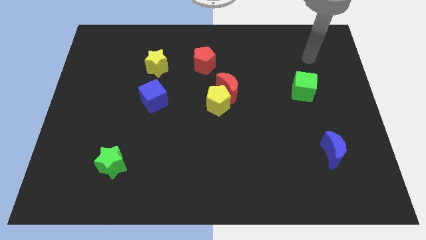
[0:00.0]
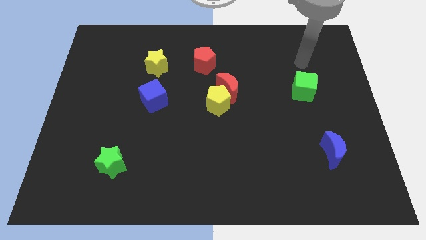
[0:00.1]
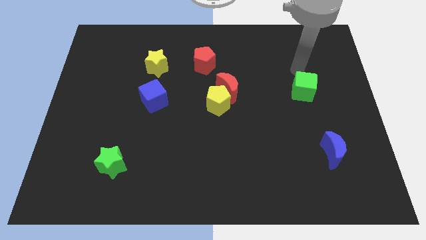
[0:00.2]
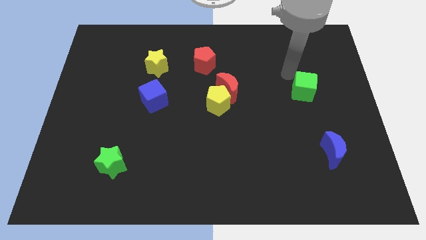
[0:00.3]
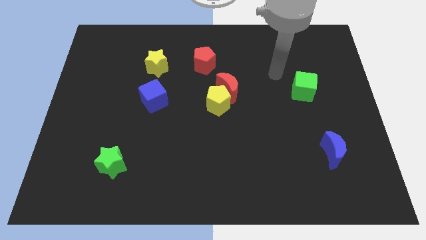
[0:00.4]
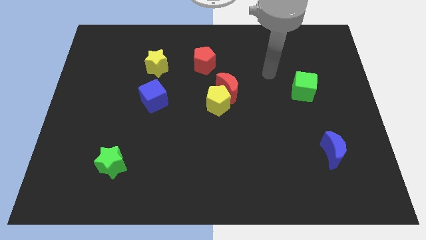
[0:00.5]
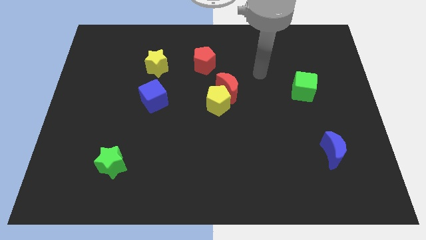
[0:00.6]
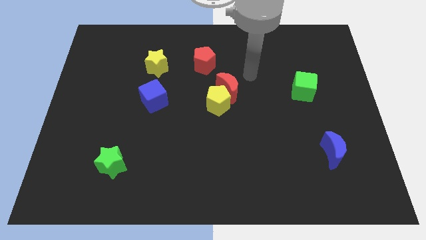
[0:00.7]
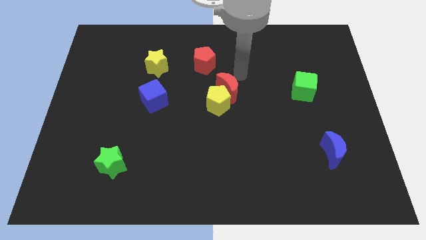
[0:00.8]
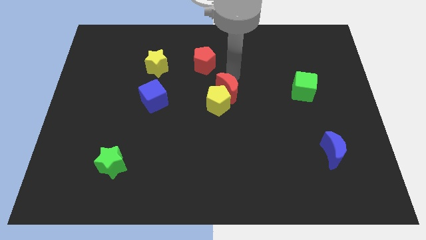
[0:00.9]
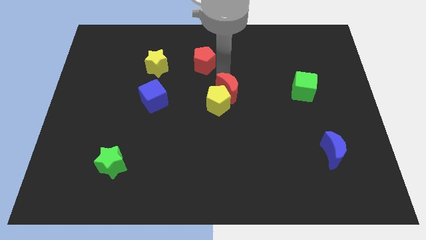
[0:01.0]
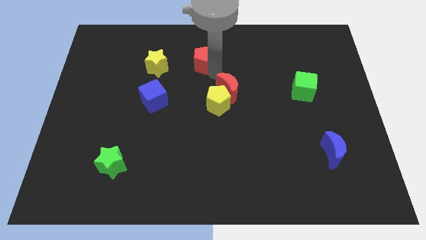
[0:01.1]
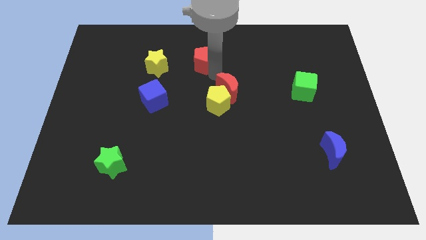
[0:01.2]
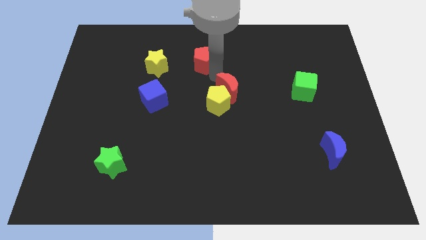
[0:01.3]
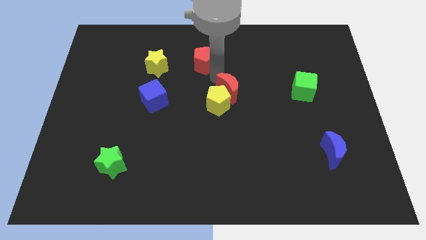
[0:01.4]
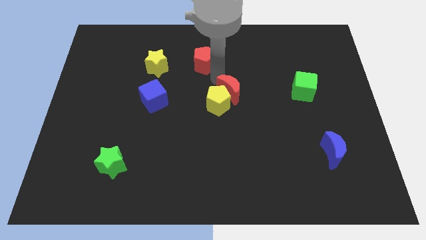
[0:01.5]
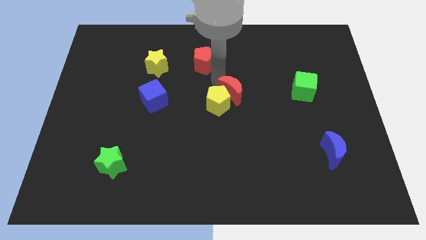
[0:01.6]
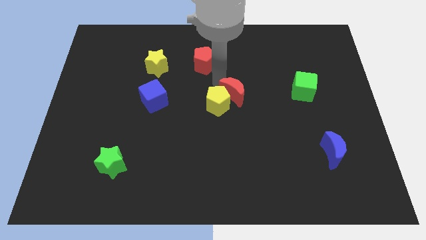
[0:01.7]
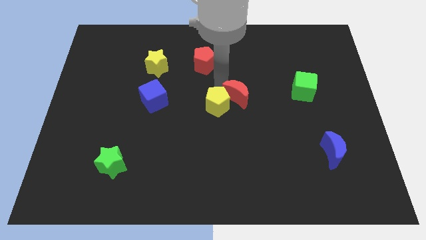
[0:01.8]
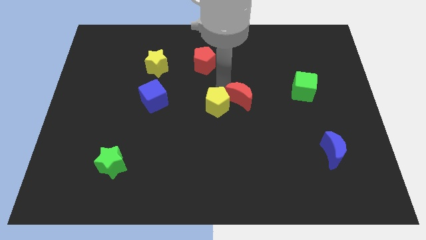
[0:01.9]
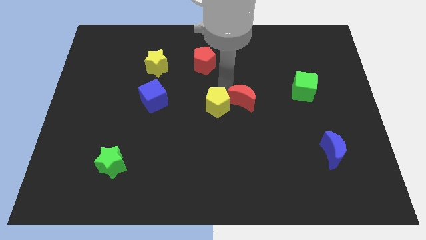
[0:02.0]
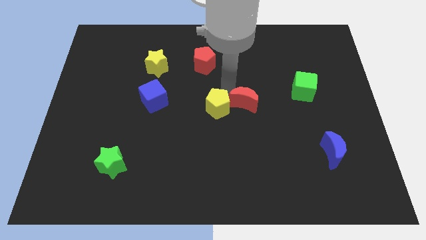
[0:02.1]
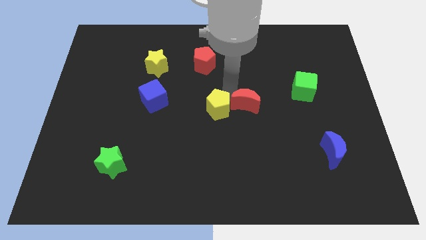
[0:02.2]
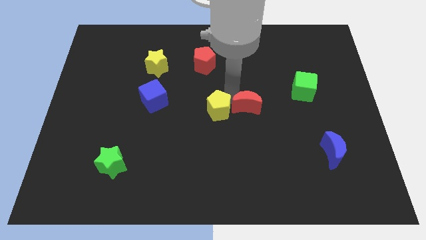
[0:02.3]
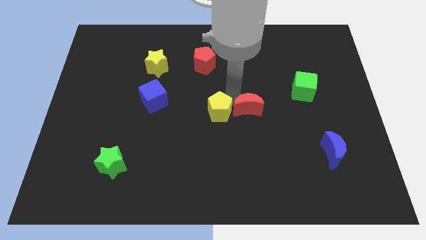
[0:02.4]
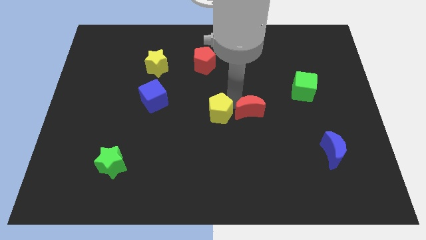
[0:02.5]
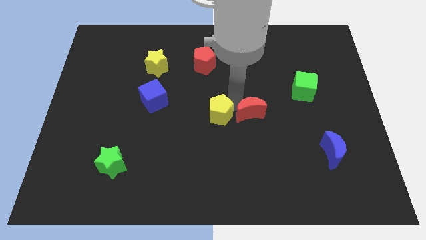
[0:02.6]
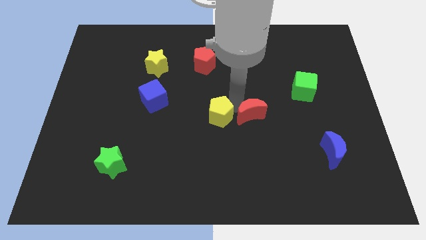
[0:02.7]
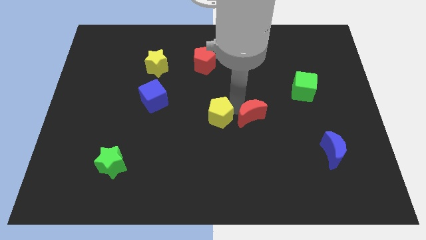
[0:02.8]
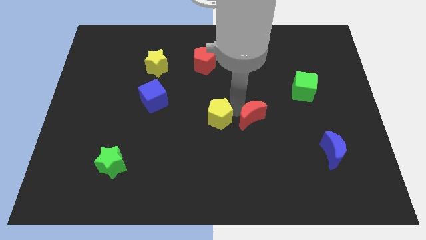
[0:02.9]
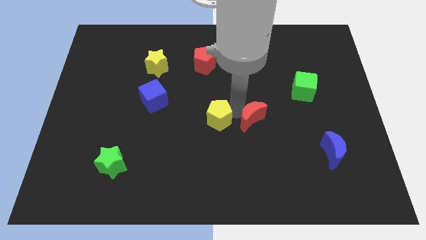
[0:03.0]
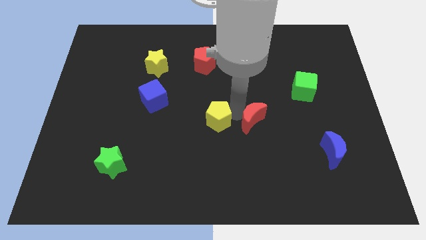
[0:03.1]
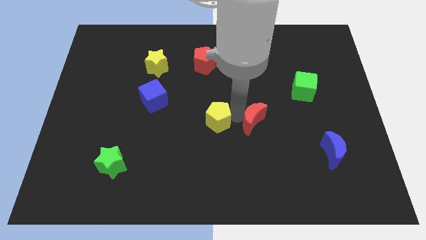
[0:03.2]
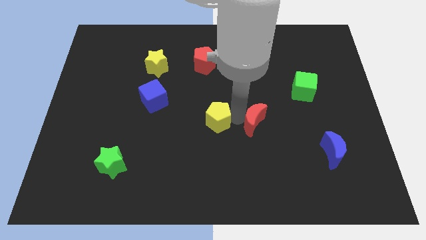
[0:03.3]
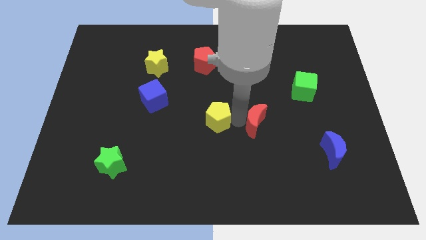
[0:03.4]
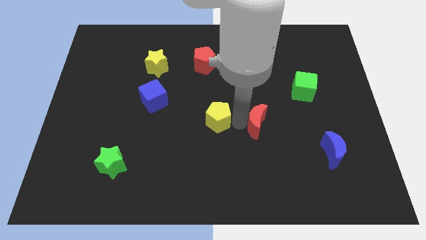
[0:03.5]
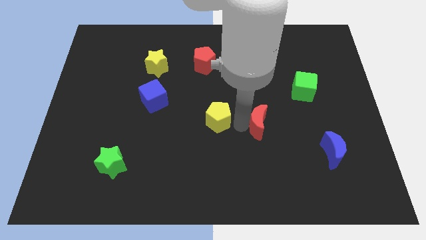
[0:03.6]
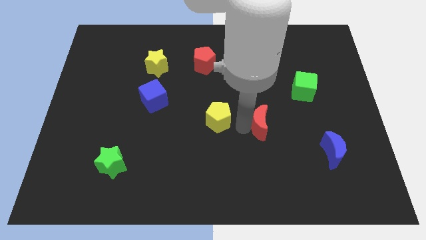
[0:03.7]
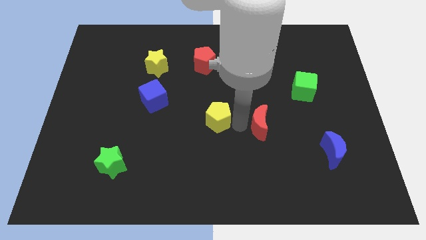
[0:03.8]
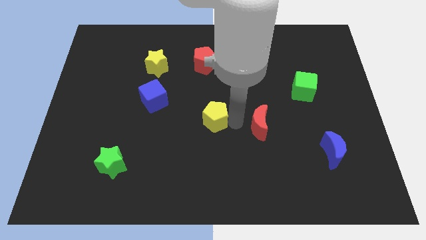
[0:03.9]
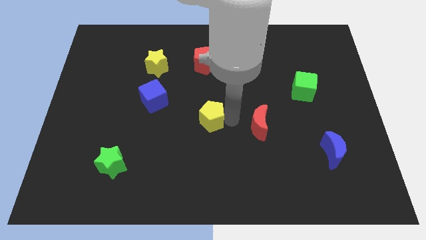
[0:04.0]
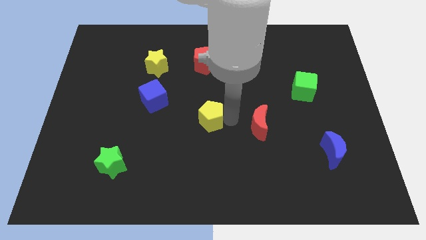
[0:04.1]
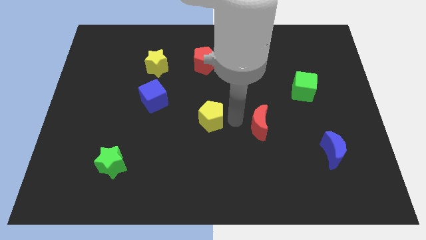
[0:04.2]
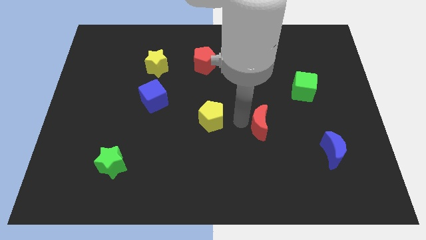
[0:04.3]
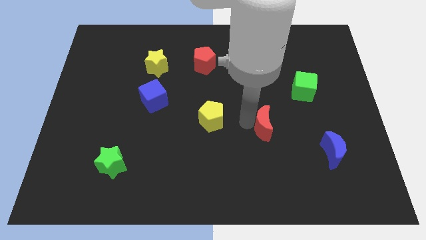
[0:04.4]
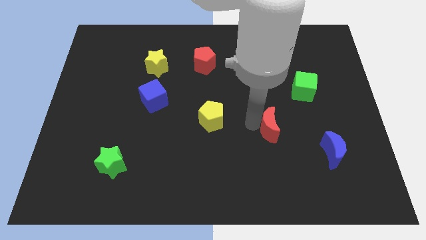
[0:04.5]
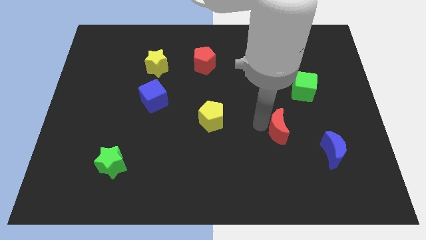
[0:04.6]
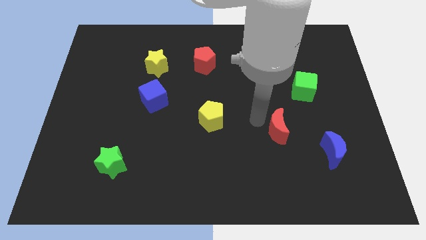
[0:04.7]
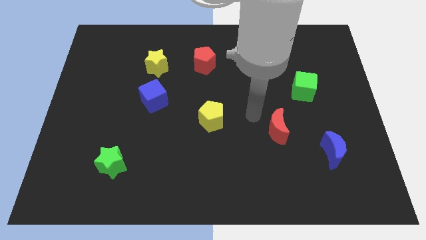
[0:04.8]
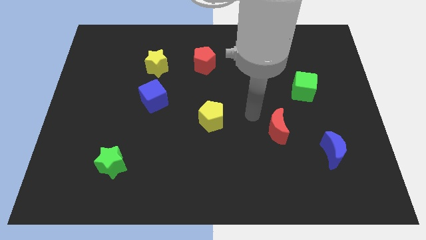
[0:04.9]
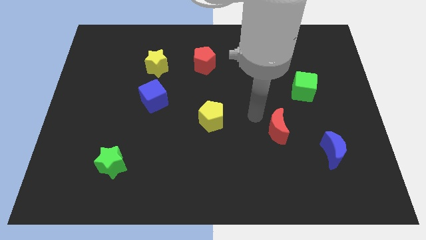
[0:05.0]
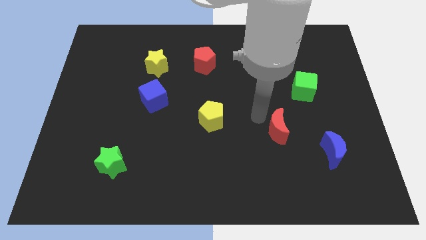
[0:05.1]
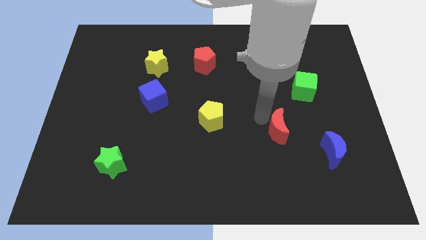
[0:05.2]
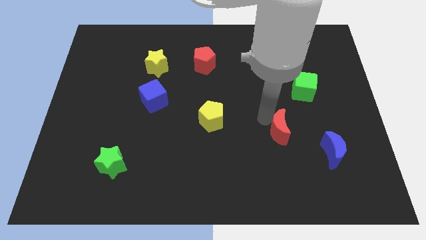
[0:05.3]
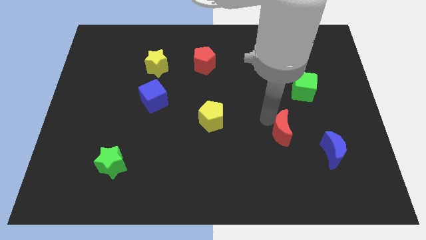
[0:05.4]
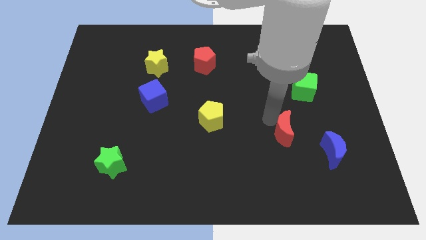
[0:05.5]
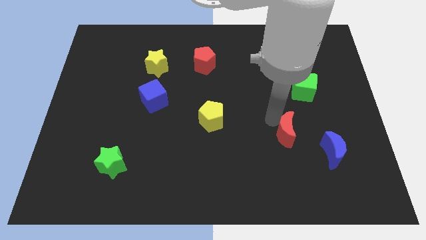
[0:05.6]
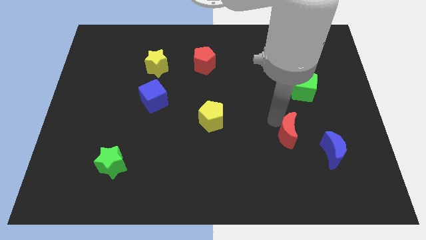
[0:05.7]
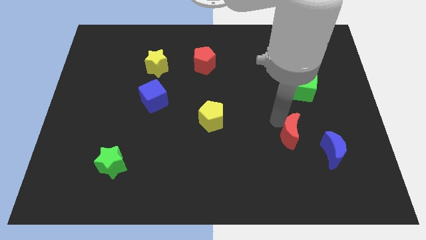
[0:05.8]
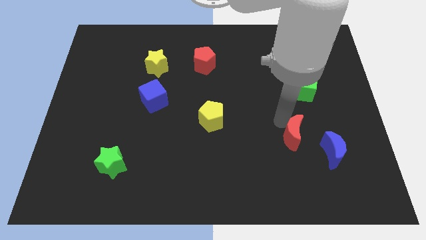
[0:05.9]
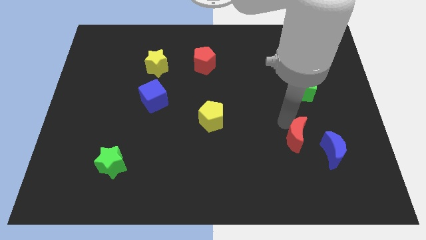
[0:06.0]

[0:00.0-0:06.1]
push the red moon down and to the right

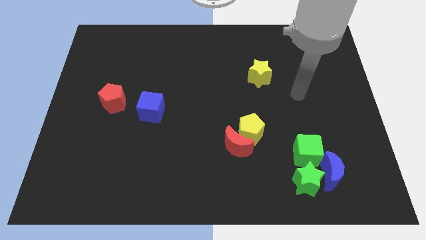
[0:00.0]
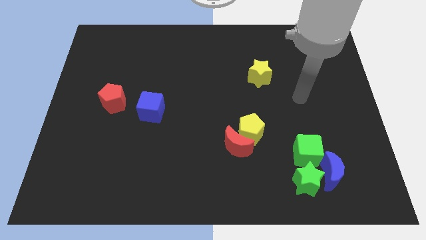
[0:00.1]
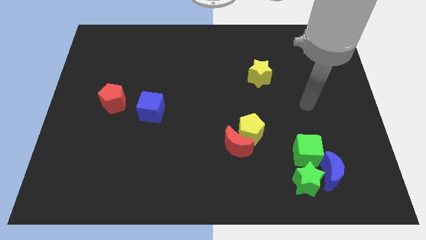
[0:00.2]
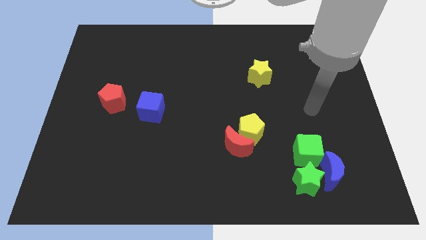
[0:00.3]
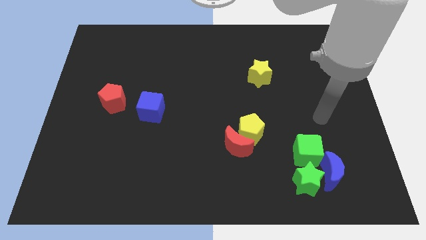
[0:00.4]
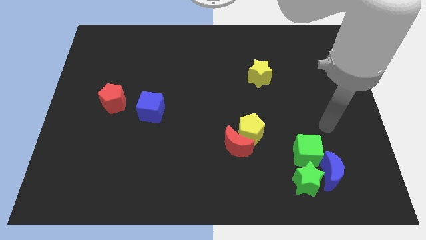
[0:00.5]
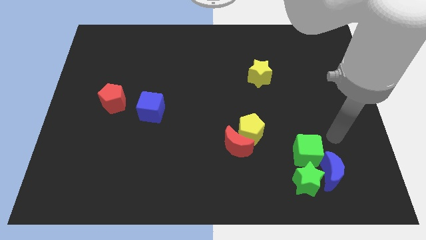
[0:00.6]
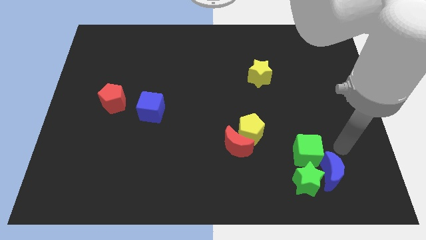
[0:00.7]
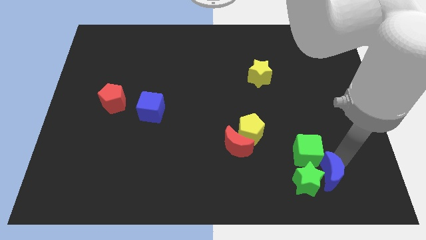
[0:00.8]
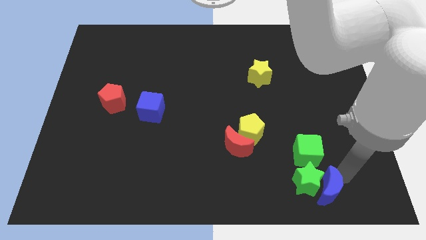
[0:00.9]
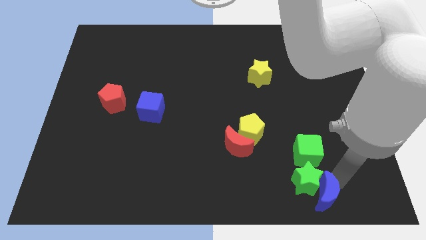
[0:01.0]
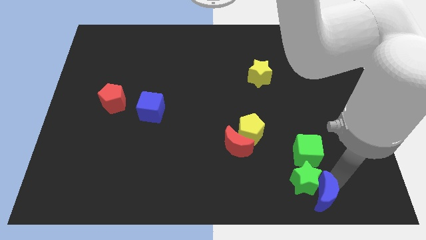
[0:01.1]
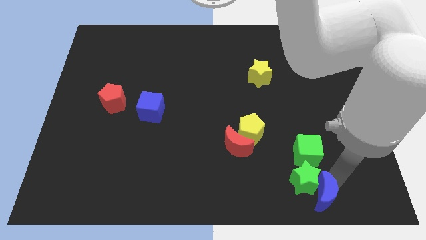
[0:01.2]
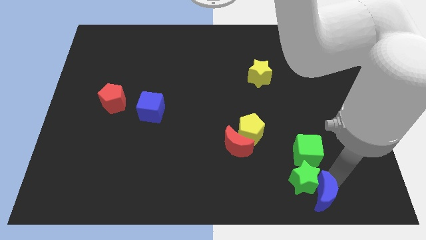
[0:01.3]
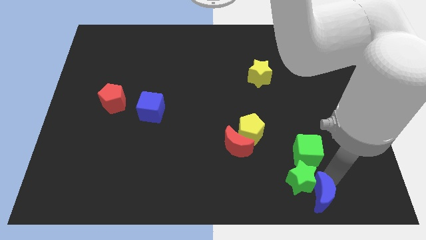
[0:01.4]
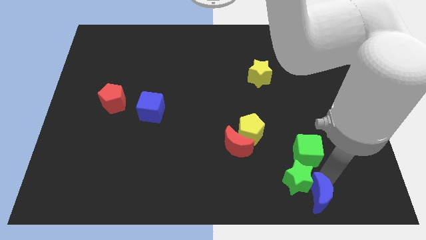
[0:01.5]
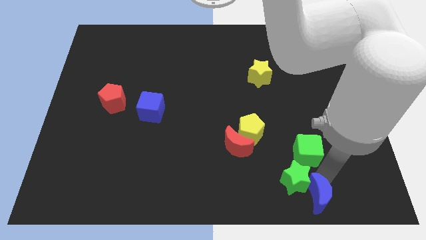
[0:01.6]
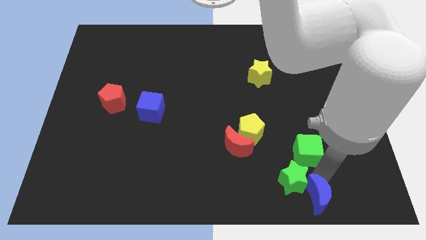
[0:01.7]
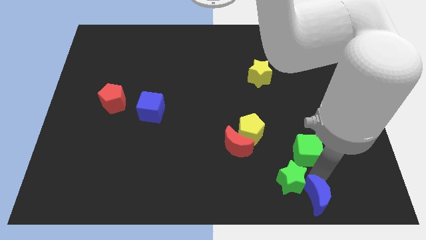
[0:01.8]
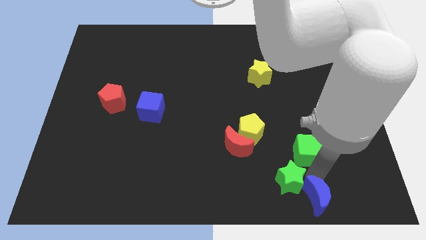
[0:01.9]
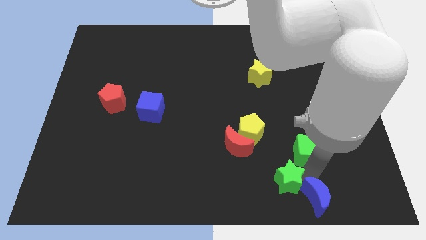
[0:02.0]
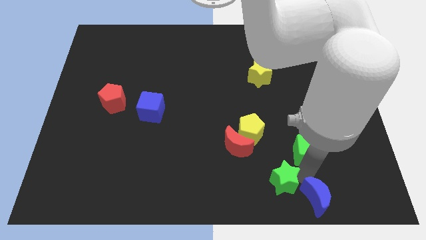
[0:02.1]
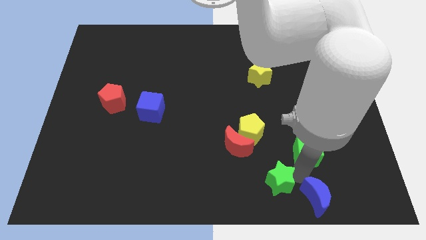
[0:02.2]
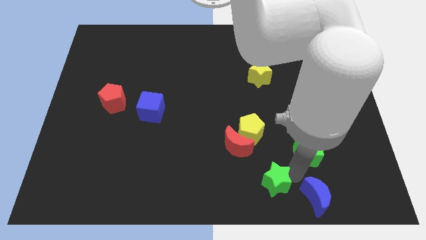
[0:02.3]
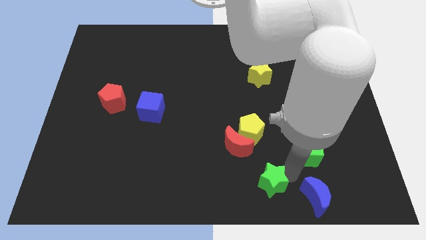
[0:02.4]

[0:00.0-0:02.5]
push the green star a little bit left
